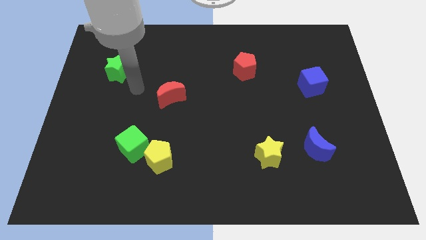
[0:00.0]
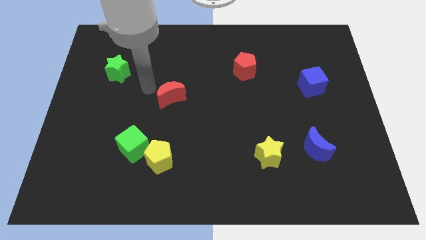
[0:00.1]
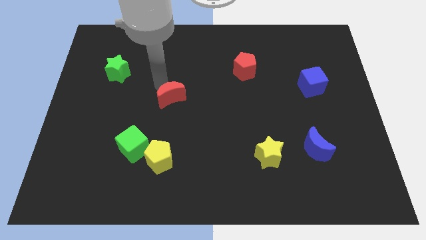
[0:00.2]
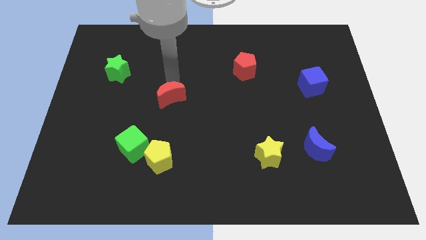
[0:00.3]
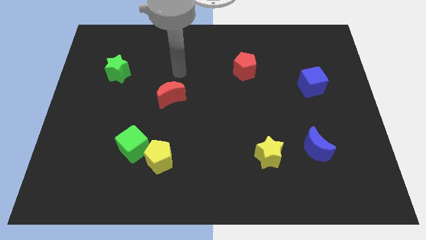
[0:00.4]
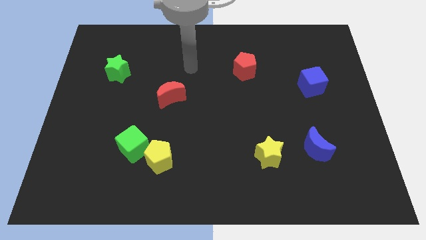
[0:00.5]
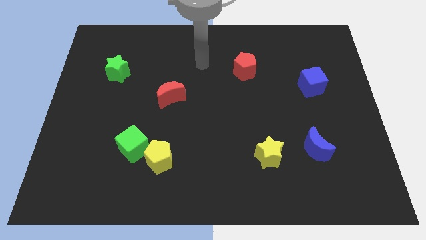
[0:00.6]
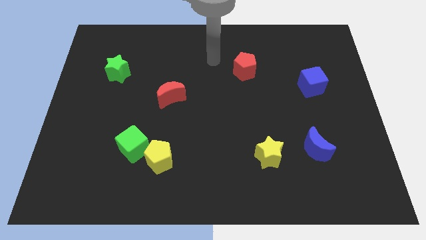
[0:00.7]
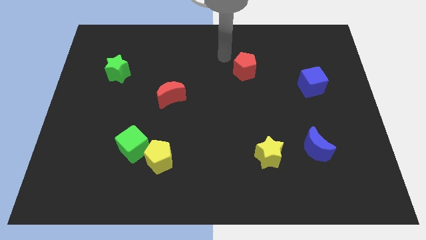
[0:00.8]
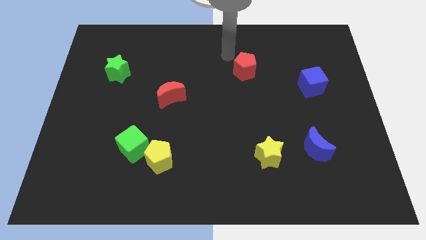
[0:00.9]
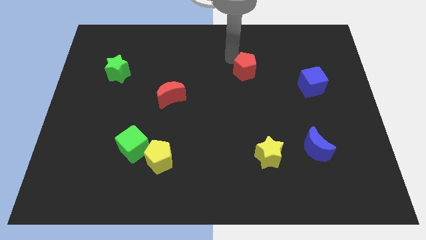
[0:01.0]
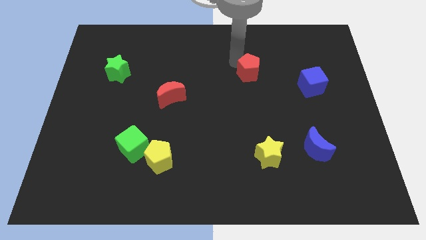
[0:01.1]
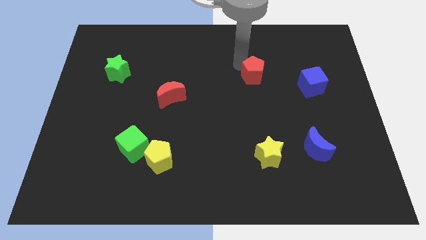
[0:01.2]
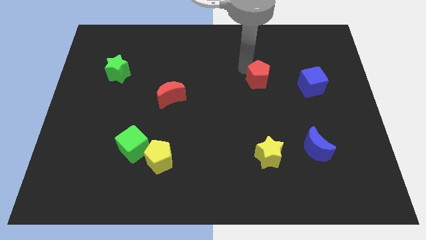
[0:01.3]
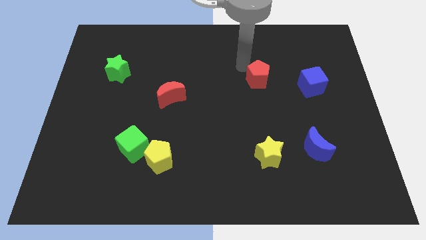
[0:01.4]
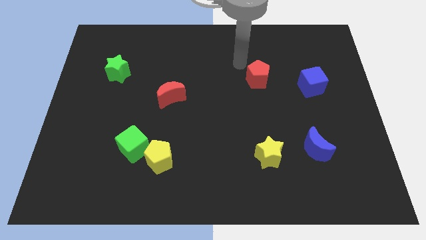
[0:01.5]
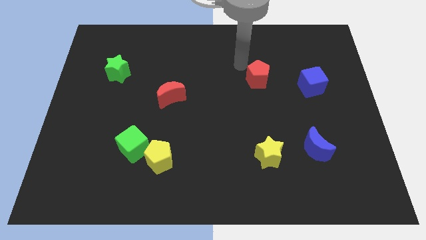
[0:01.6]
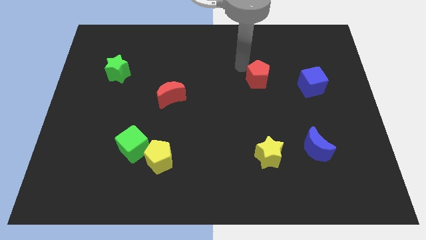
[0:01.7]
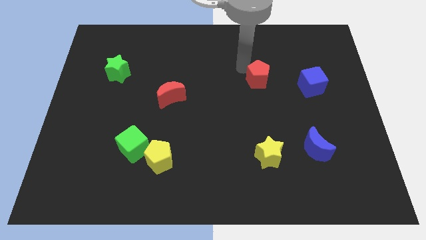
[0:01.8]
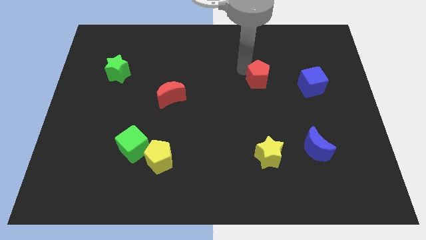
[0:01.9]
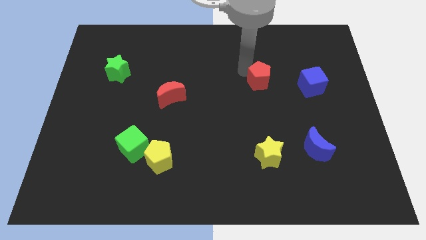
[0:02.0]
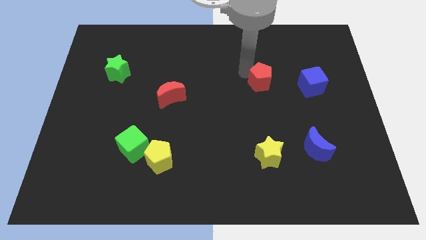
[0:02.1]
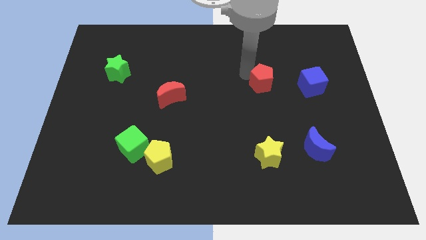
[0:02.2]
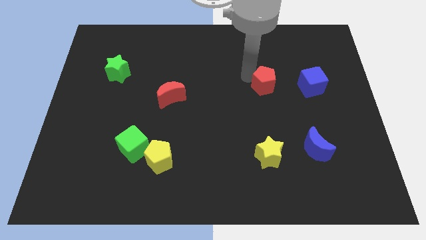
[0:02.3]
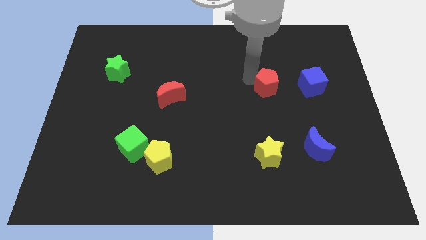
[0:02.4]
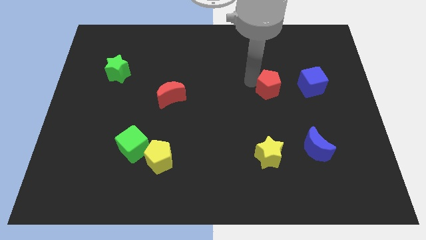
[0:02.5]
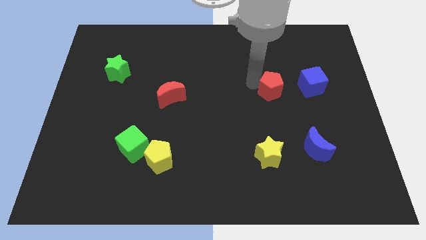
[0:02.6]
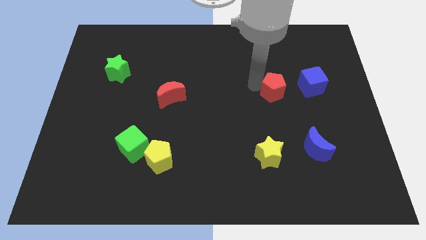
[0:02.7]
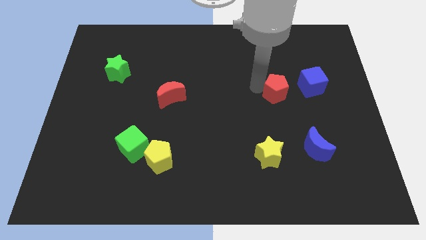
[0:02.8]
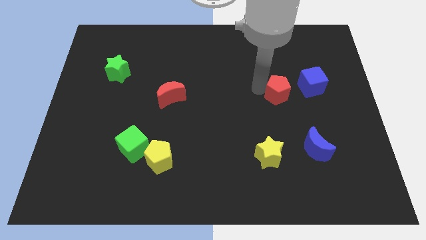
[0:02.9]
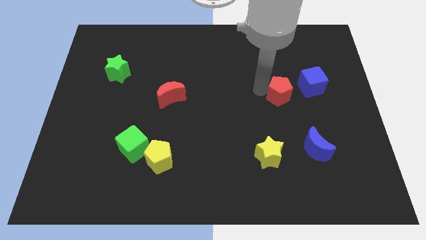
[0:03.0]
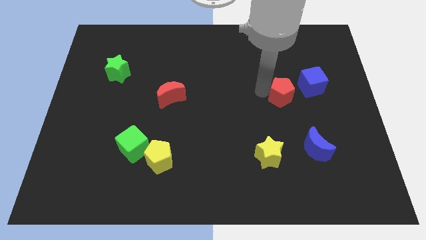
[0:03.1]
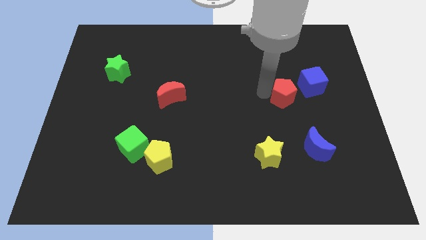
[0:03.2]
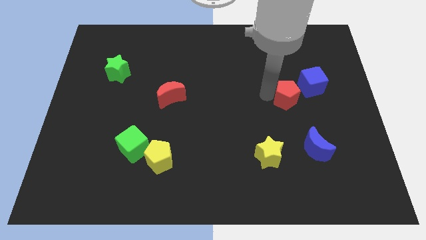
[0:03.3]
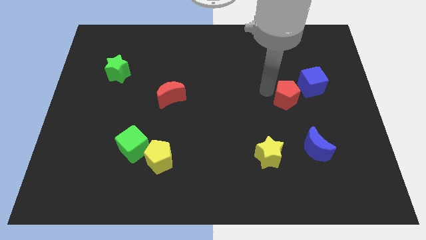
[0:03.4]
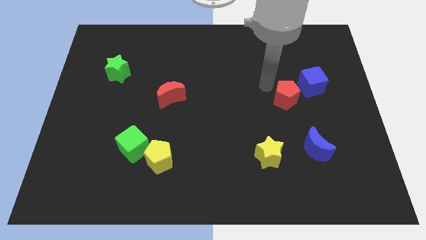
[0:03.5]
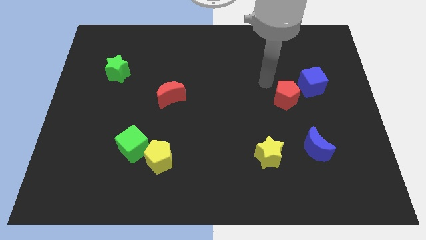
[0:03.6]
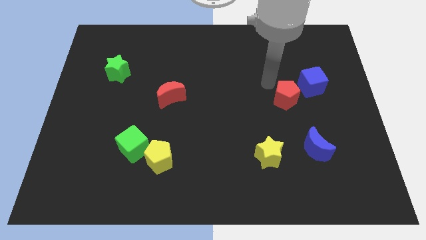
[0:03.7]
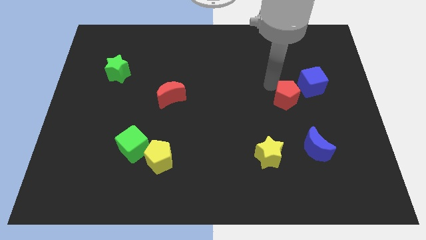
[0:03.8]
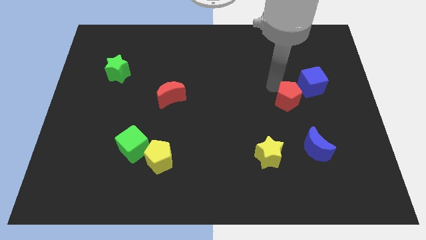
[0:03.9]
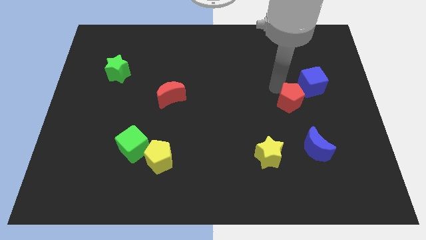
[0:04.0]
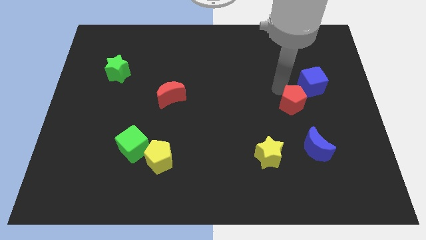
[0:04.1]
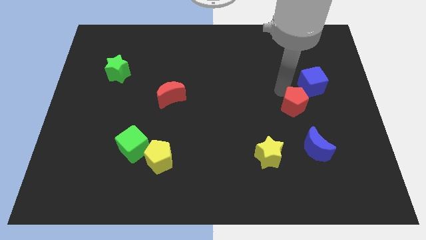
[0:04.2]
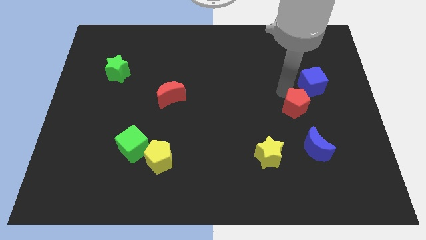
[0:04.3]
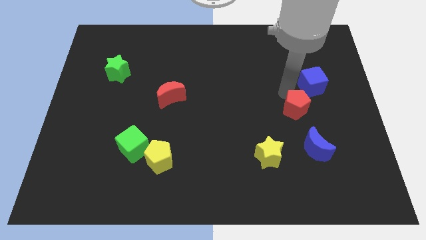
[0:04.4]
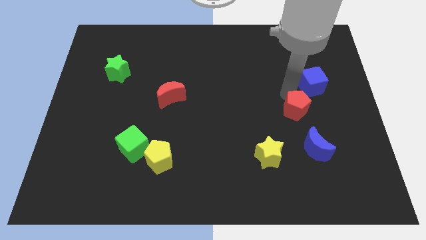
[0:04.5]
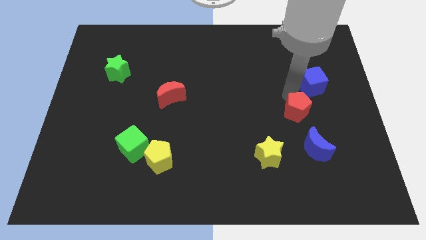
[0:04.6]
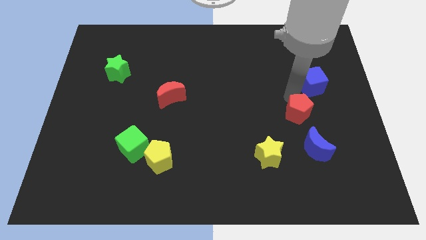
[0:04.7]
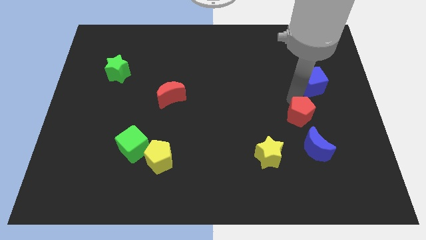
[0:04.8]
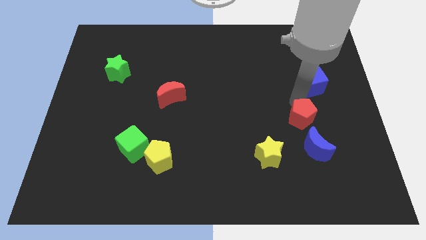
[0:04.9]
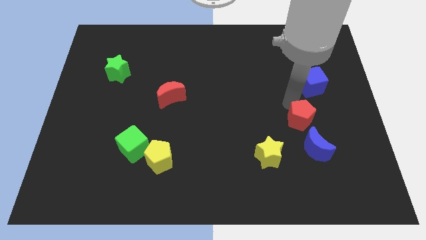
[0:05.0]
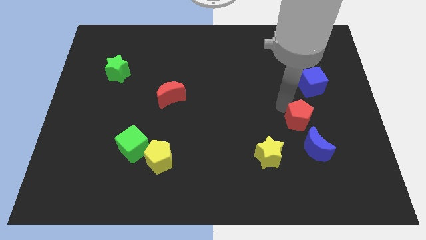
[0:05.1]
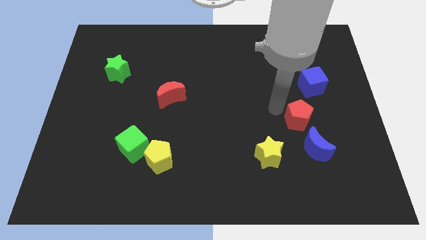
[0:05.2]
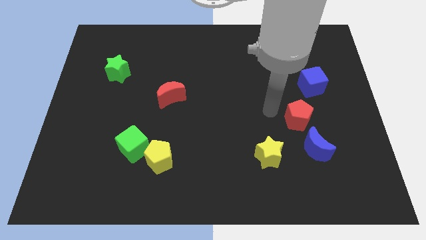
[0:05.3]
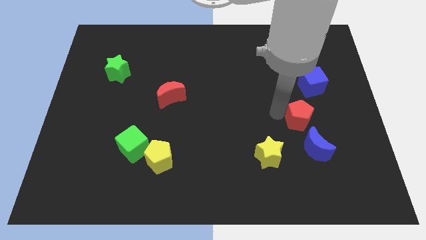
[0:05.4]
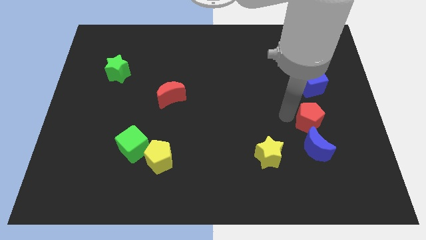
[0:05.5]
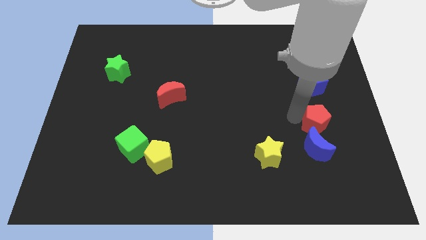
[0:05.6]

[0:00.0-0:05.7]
put the red pentagon diagonally up and to the right of the blue moon

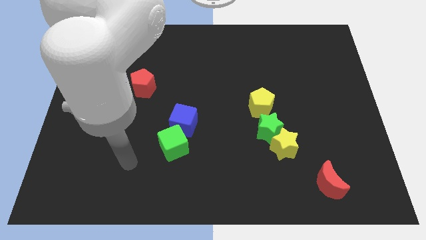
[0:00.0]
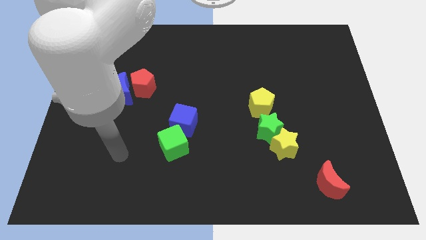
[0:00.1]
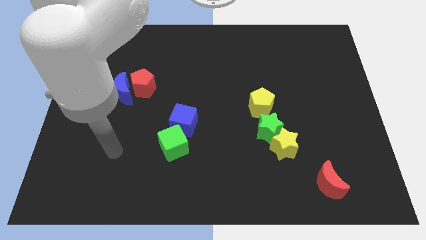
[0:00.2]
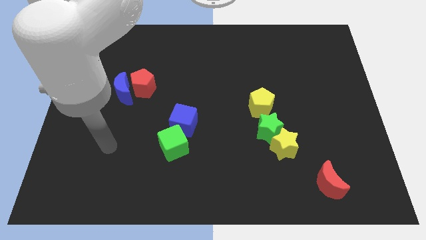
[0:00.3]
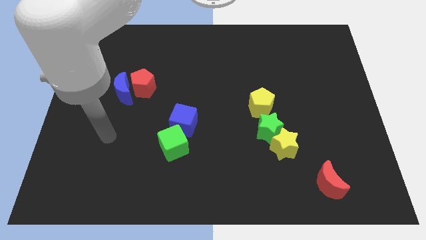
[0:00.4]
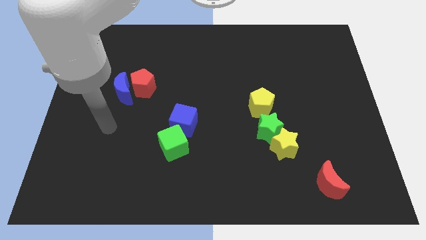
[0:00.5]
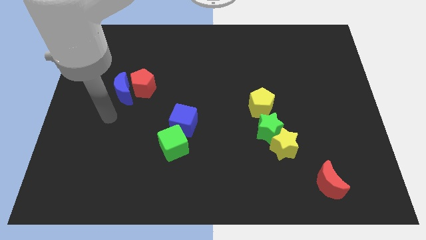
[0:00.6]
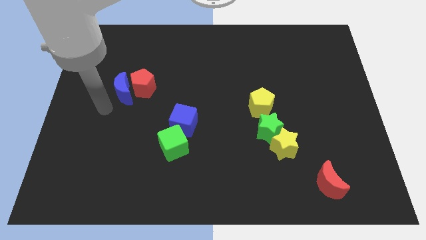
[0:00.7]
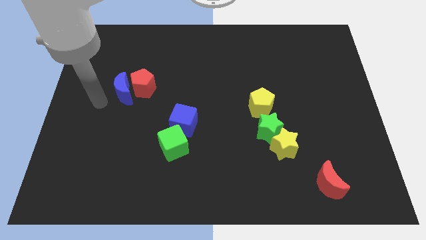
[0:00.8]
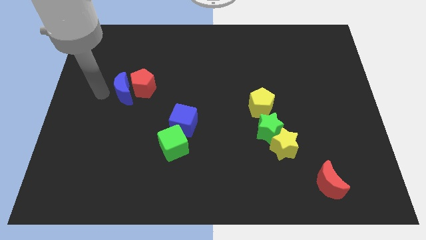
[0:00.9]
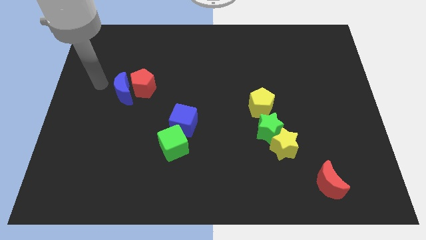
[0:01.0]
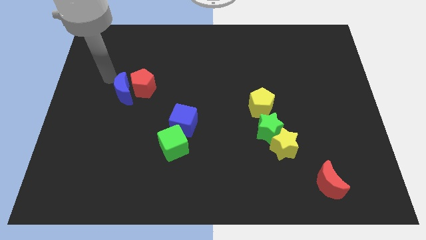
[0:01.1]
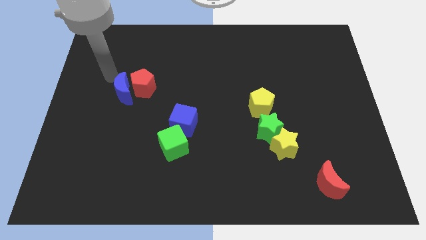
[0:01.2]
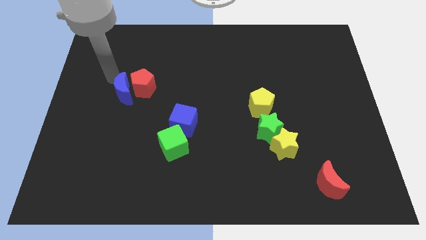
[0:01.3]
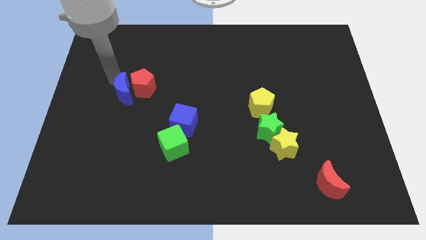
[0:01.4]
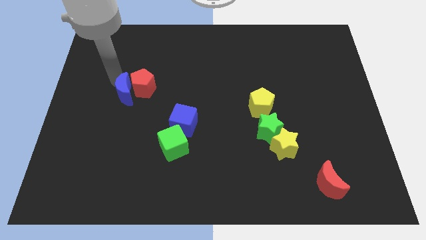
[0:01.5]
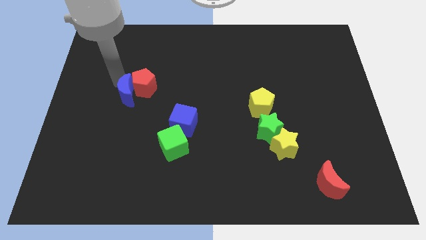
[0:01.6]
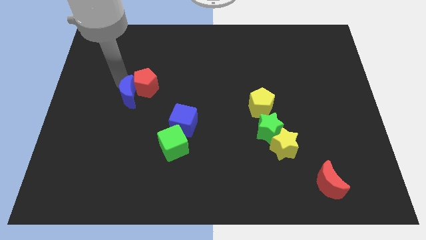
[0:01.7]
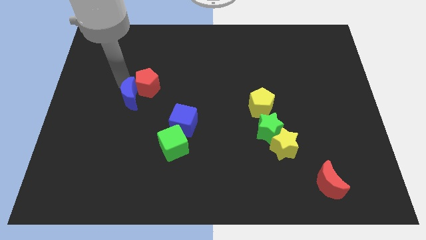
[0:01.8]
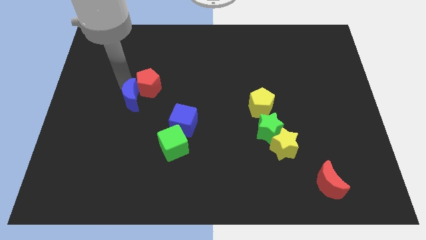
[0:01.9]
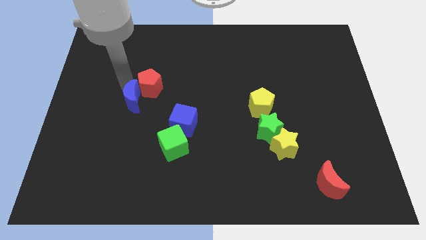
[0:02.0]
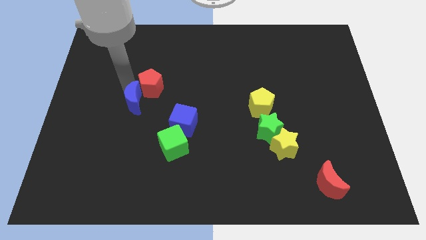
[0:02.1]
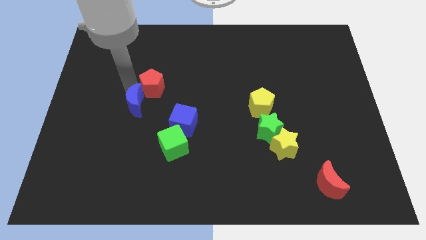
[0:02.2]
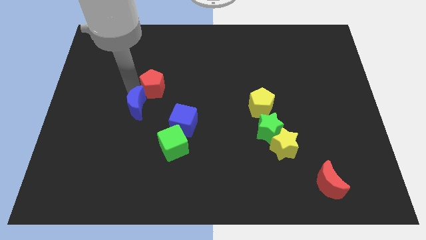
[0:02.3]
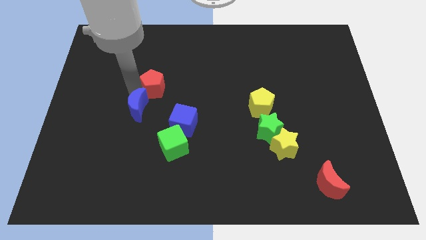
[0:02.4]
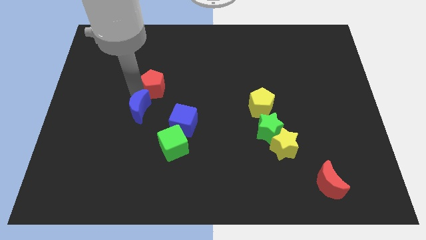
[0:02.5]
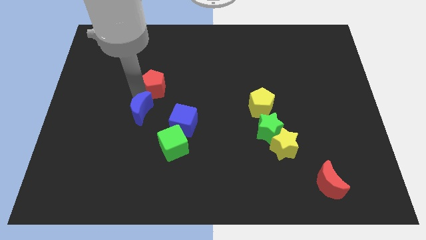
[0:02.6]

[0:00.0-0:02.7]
push the blue moon to the top left side of the green cube
